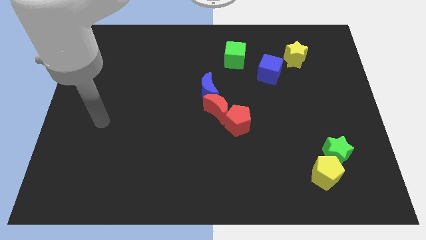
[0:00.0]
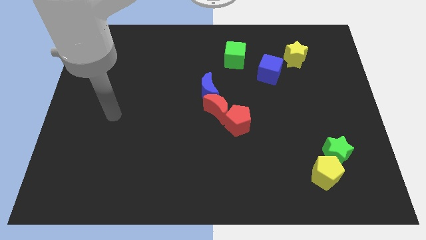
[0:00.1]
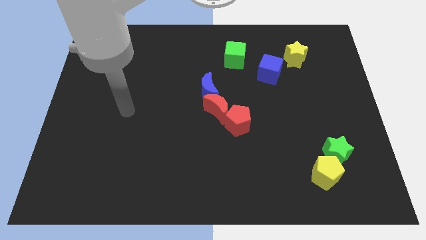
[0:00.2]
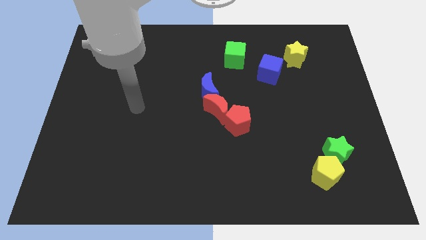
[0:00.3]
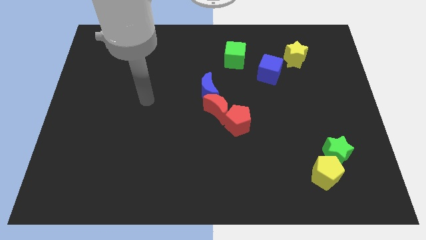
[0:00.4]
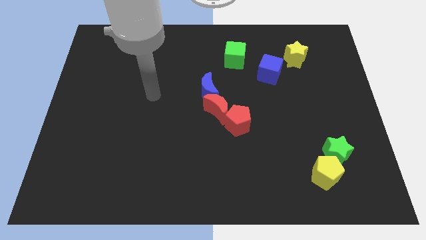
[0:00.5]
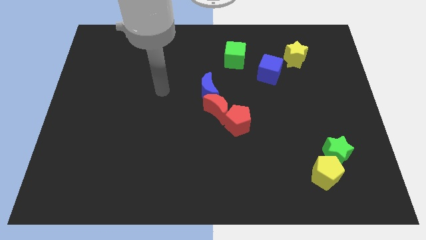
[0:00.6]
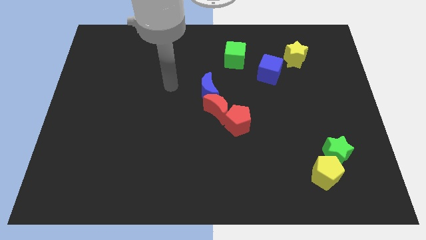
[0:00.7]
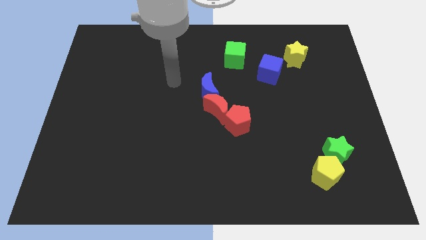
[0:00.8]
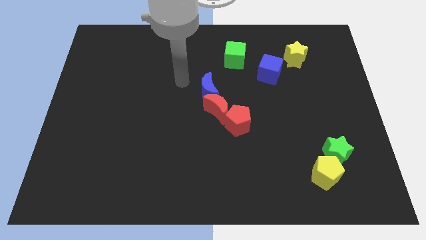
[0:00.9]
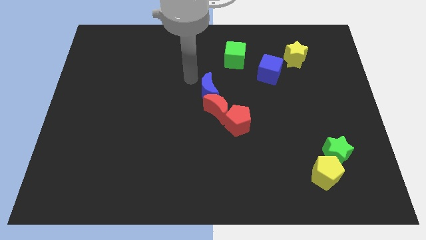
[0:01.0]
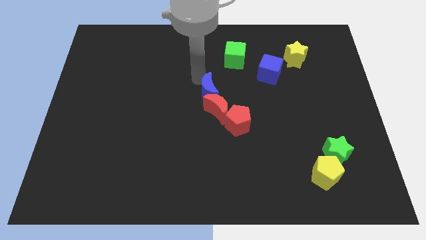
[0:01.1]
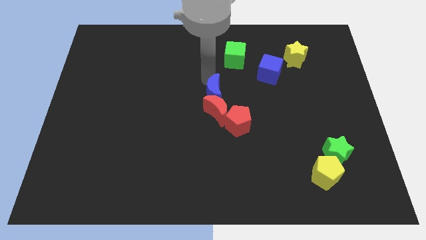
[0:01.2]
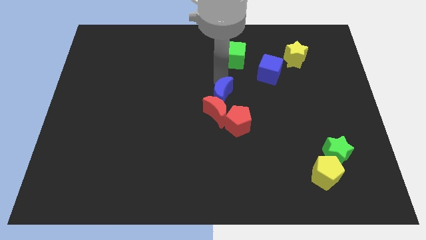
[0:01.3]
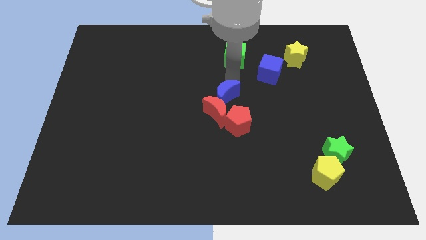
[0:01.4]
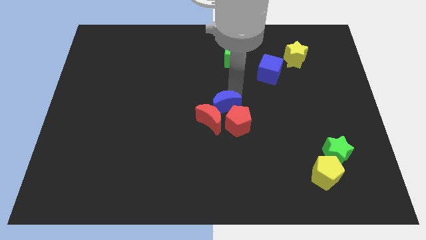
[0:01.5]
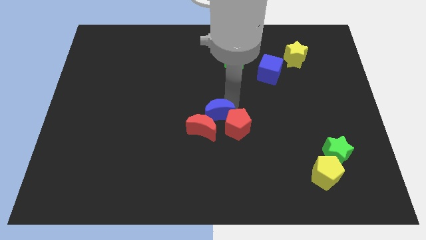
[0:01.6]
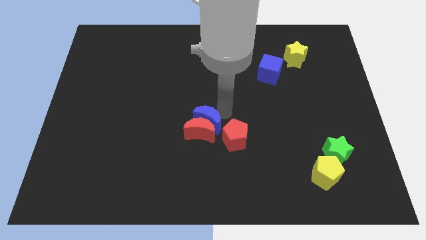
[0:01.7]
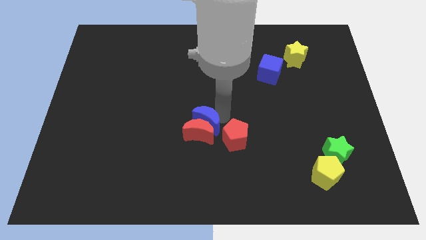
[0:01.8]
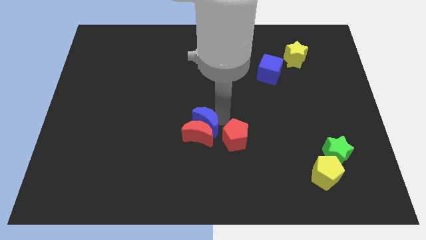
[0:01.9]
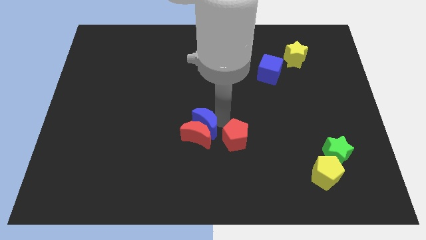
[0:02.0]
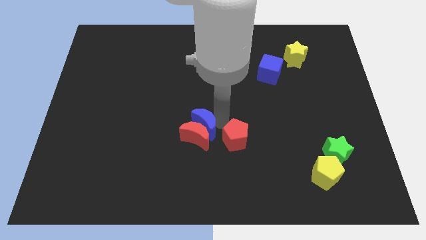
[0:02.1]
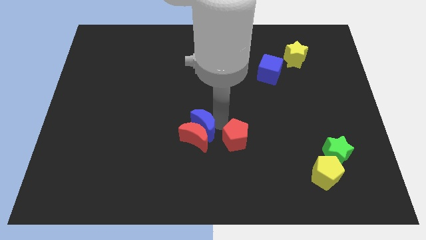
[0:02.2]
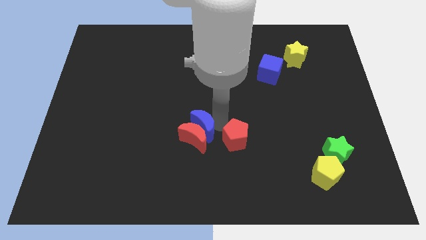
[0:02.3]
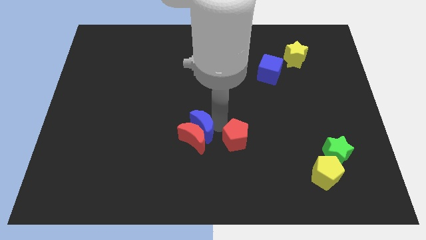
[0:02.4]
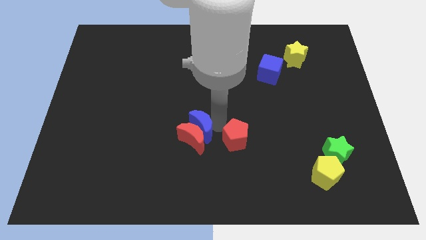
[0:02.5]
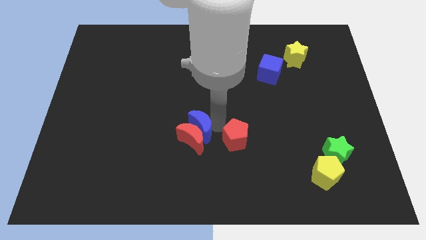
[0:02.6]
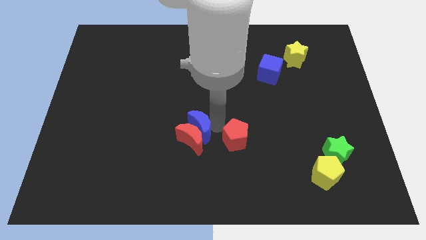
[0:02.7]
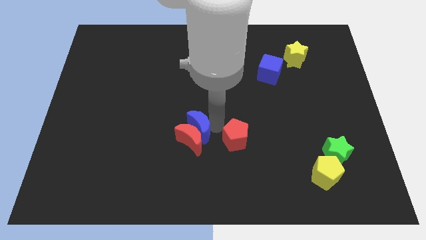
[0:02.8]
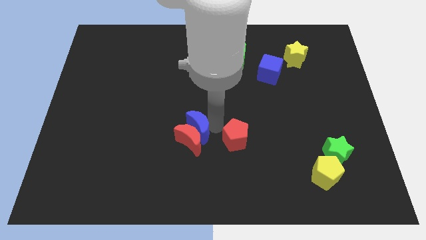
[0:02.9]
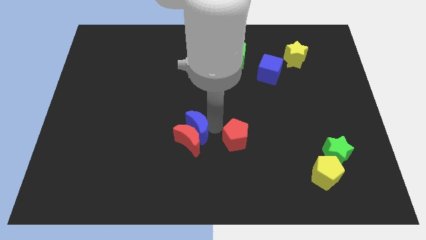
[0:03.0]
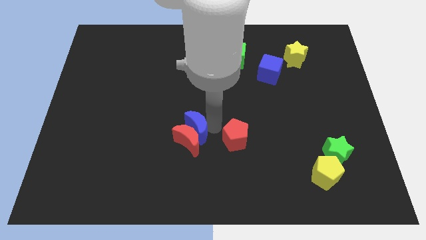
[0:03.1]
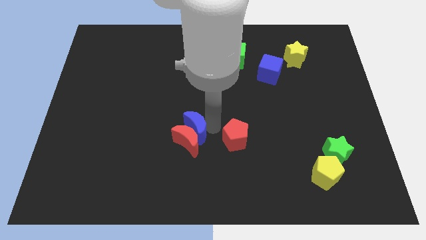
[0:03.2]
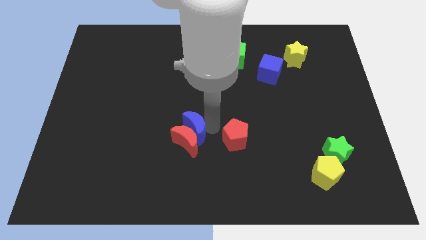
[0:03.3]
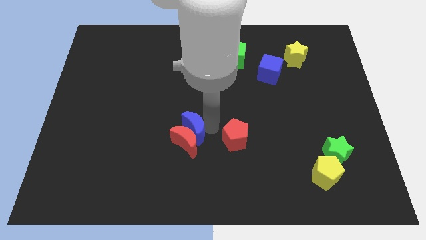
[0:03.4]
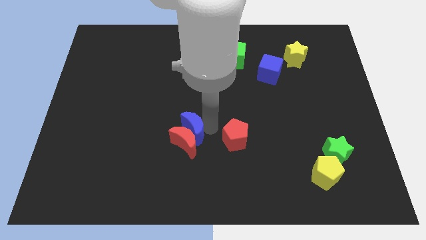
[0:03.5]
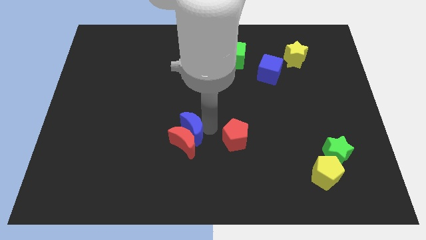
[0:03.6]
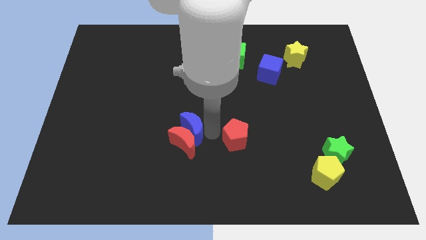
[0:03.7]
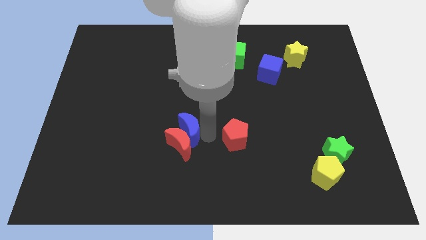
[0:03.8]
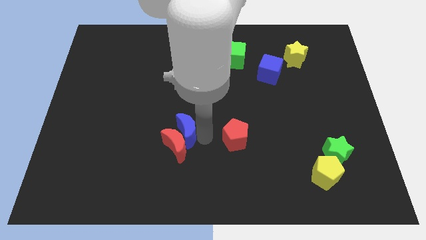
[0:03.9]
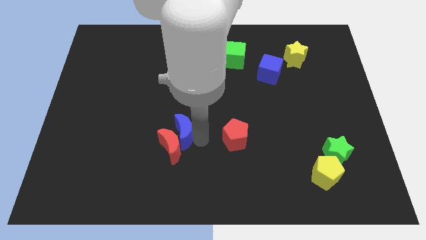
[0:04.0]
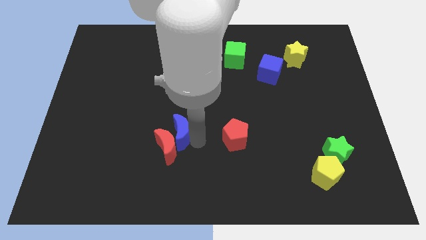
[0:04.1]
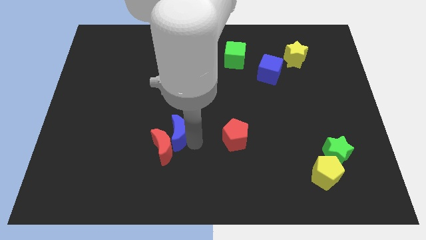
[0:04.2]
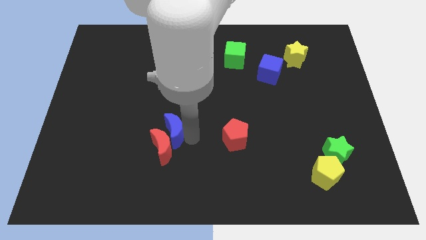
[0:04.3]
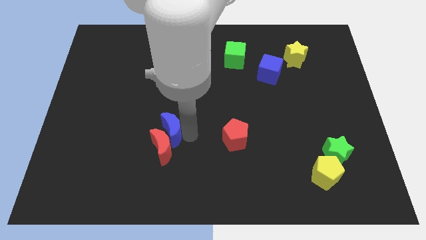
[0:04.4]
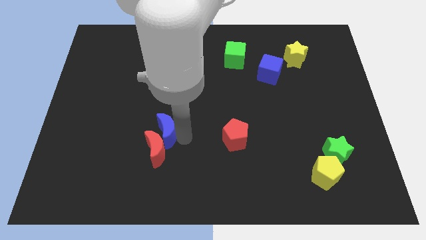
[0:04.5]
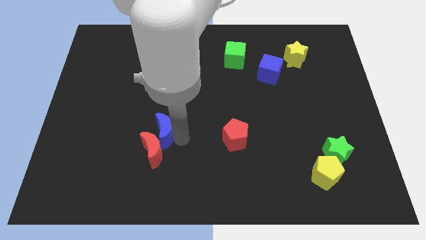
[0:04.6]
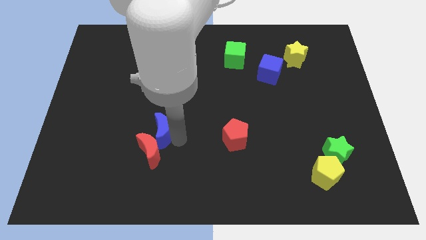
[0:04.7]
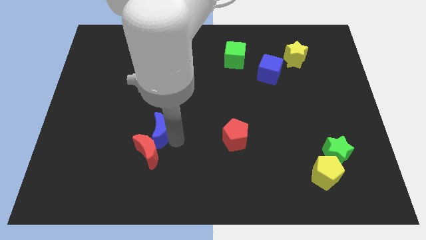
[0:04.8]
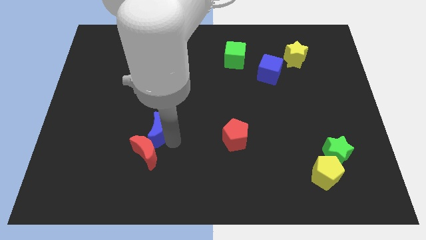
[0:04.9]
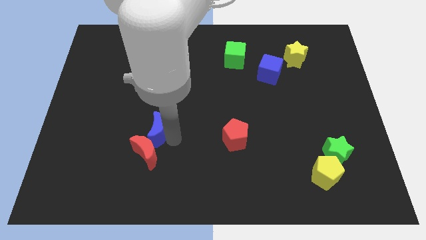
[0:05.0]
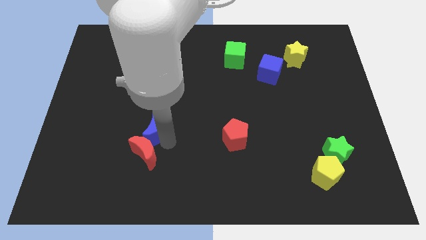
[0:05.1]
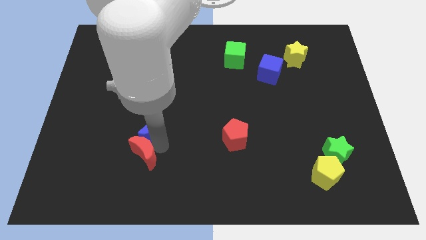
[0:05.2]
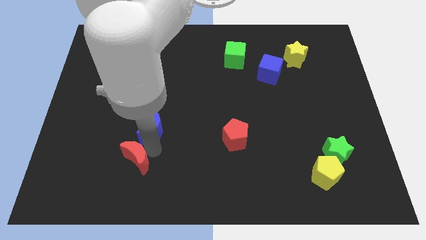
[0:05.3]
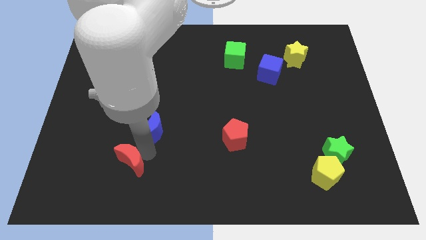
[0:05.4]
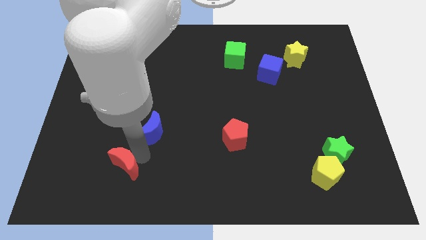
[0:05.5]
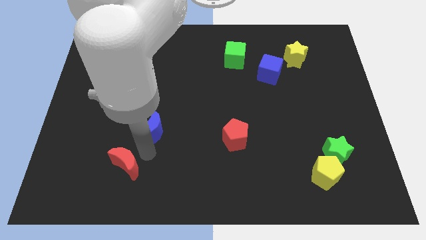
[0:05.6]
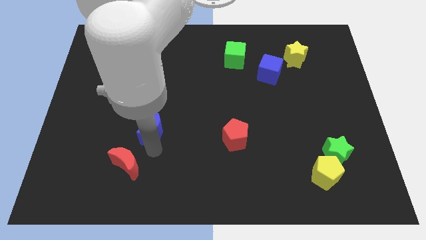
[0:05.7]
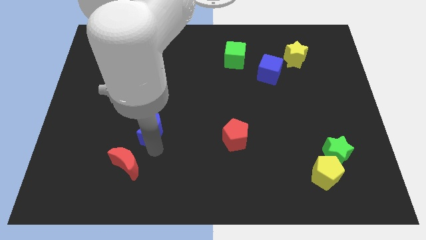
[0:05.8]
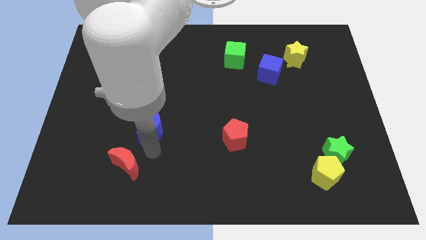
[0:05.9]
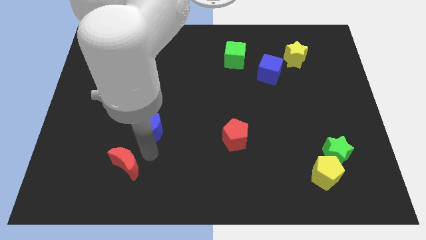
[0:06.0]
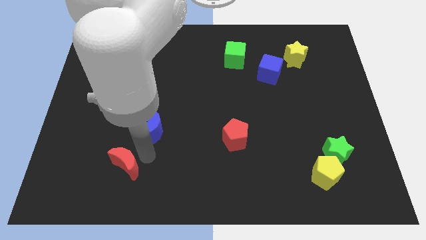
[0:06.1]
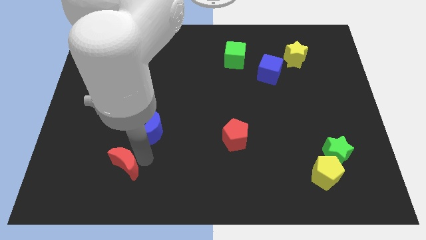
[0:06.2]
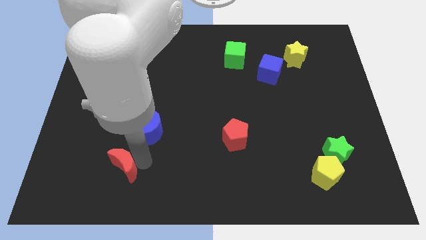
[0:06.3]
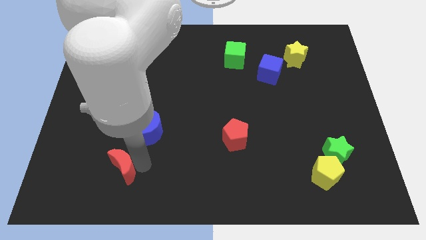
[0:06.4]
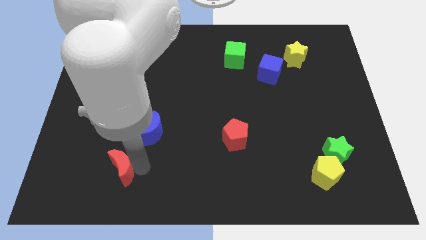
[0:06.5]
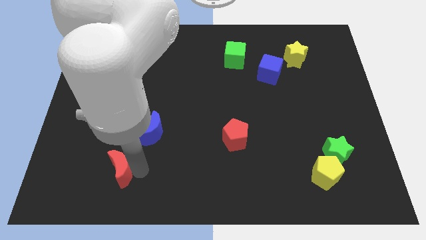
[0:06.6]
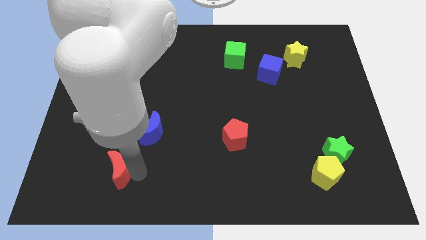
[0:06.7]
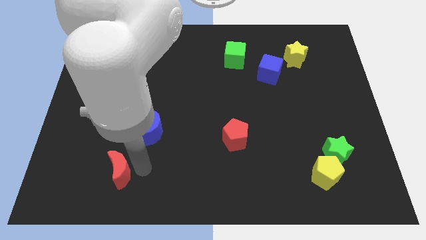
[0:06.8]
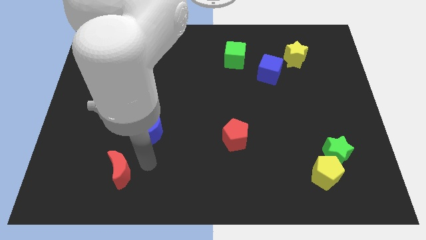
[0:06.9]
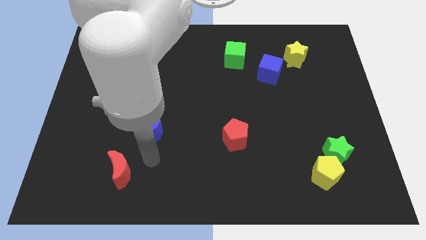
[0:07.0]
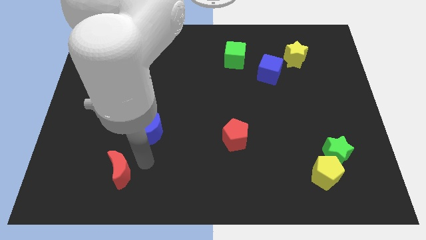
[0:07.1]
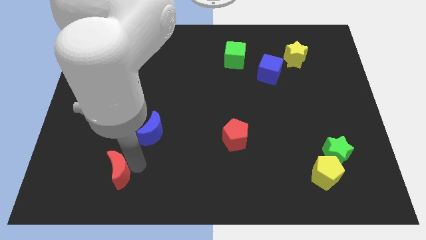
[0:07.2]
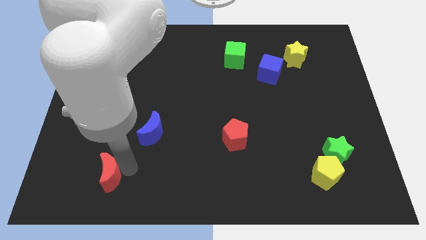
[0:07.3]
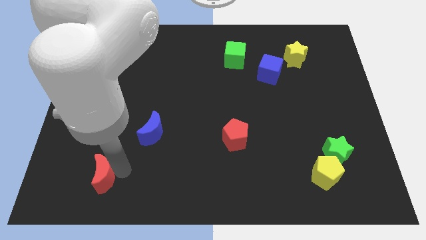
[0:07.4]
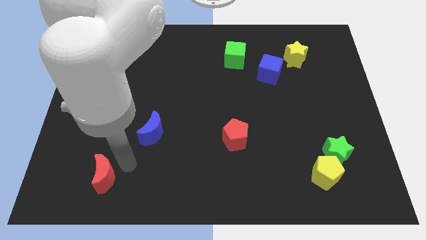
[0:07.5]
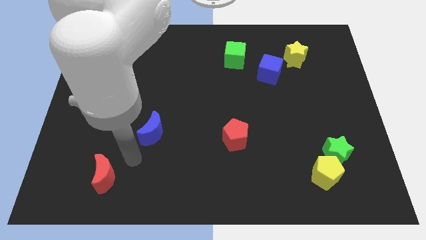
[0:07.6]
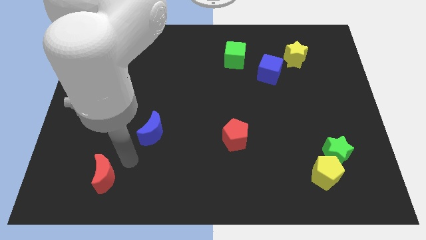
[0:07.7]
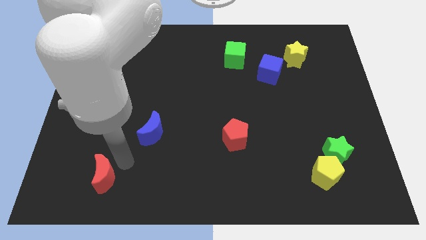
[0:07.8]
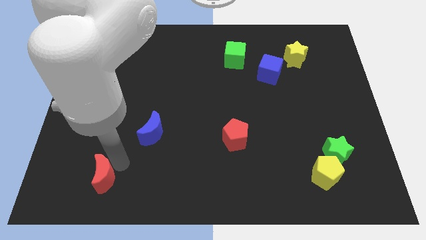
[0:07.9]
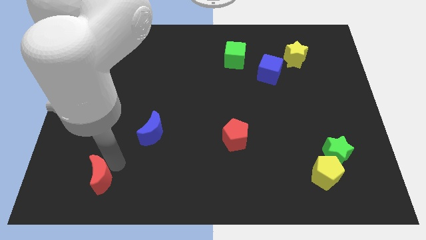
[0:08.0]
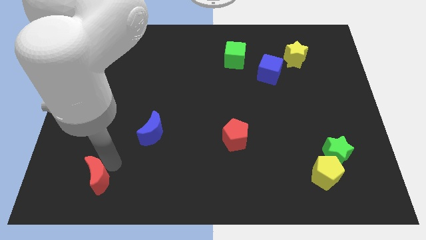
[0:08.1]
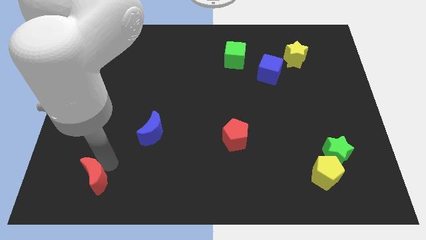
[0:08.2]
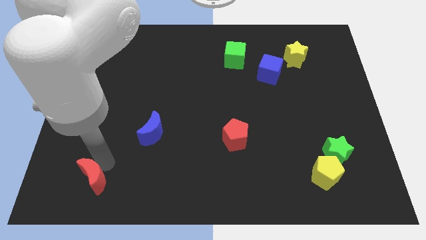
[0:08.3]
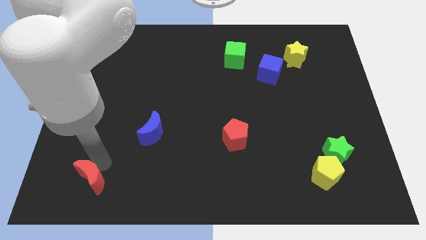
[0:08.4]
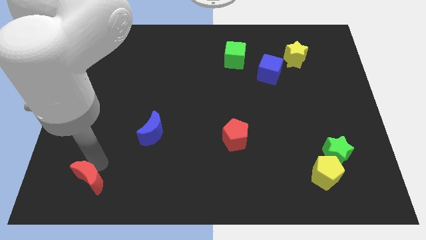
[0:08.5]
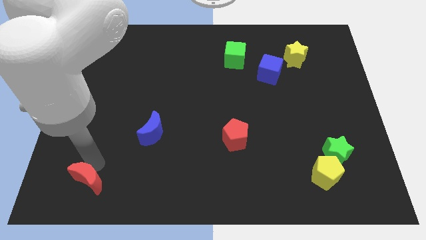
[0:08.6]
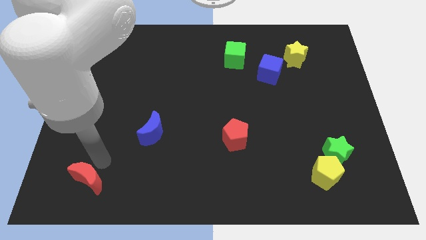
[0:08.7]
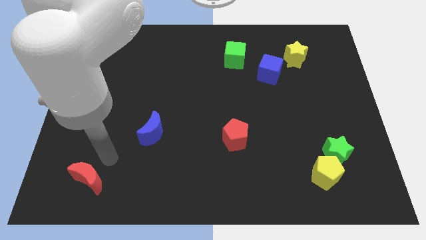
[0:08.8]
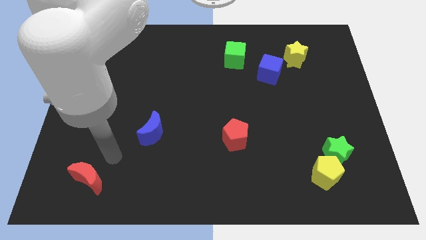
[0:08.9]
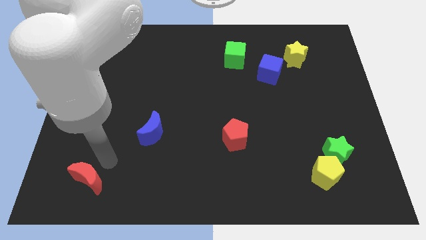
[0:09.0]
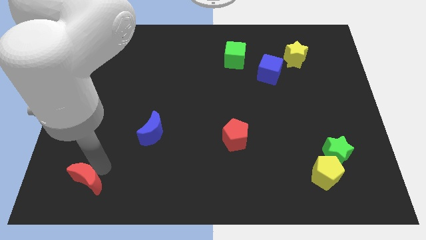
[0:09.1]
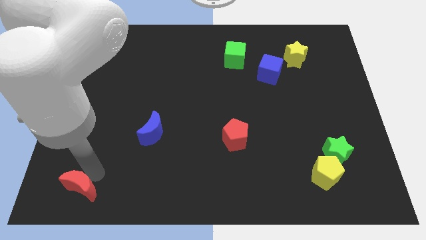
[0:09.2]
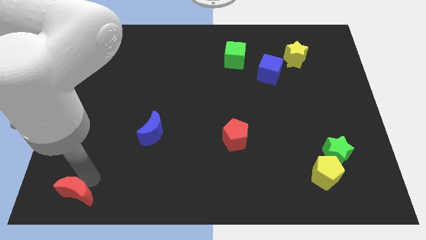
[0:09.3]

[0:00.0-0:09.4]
put the red moon to the lower left corner
